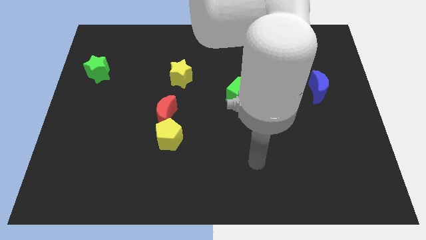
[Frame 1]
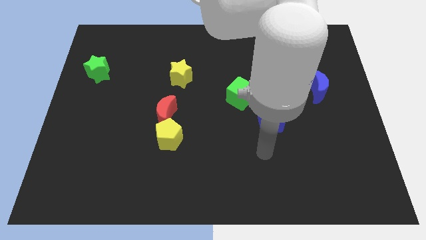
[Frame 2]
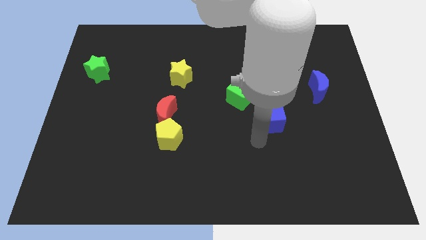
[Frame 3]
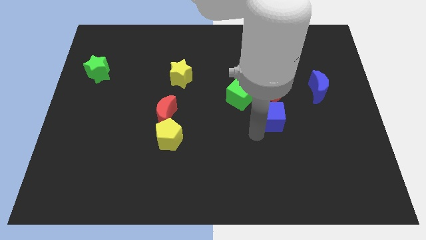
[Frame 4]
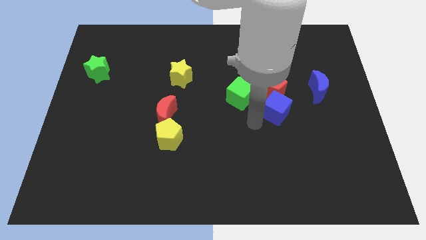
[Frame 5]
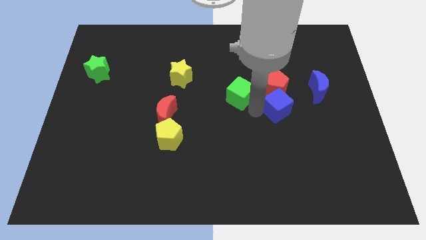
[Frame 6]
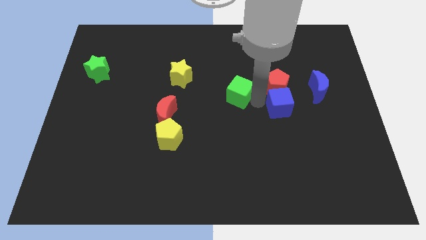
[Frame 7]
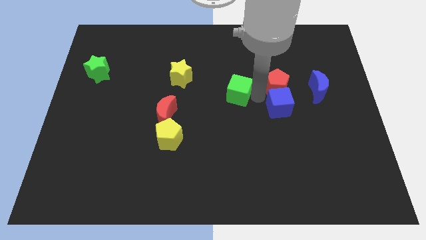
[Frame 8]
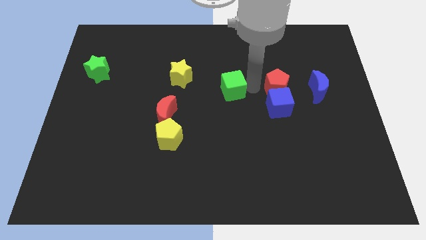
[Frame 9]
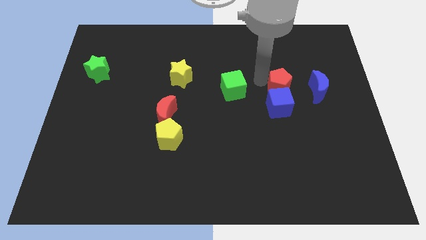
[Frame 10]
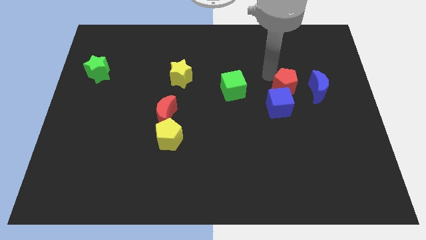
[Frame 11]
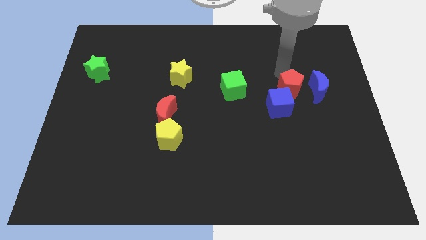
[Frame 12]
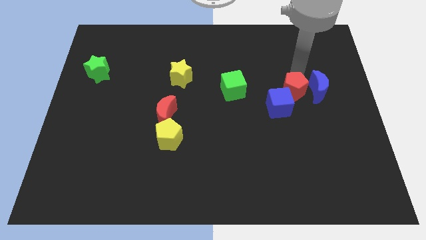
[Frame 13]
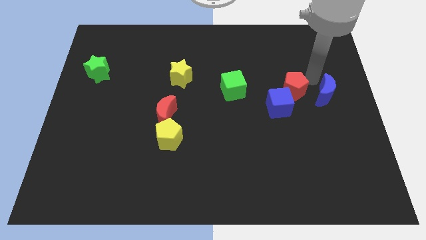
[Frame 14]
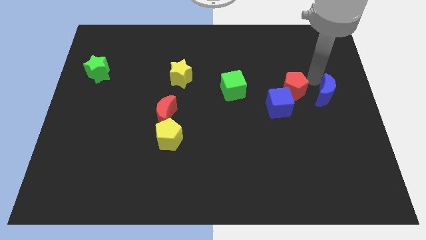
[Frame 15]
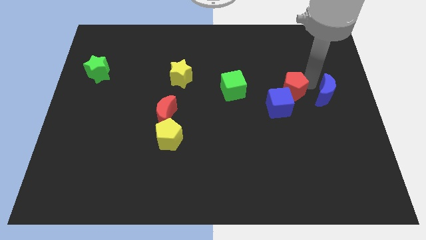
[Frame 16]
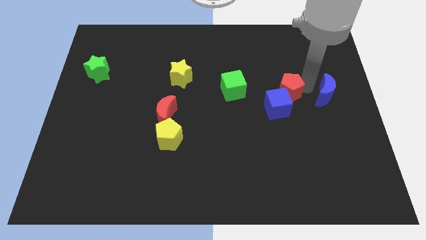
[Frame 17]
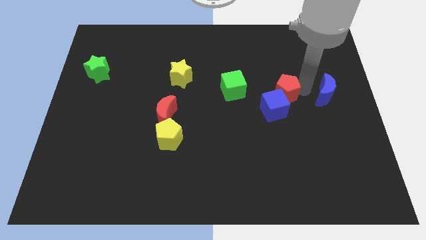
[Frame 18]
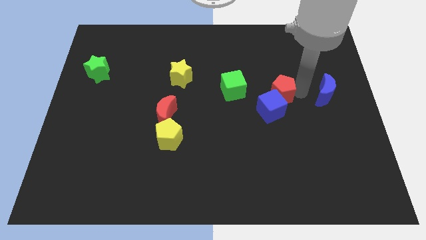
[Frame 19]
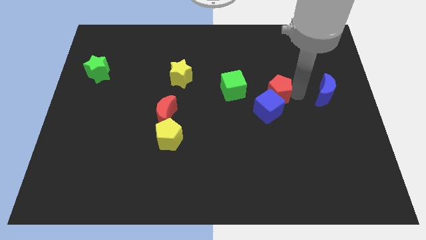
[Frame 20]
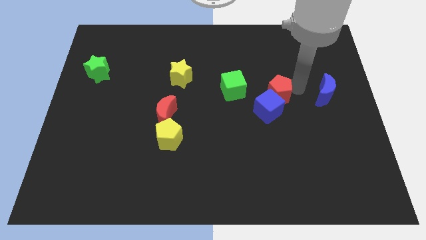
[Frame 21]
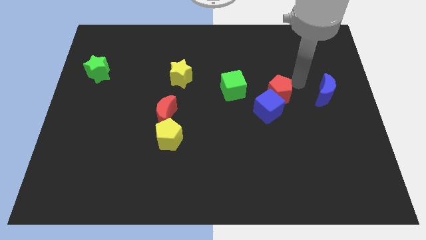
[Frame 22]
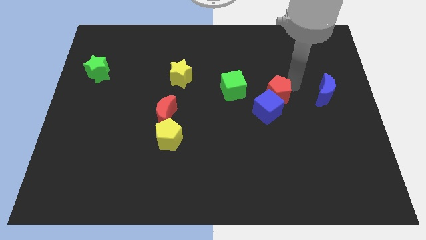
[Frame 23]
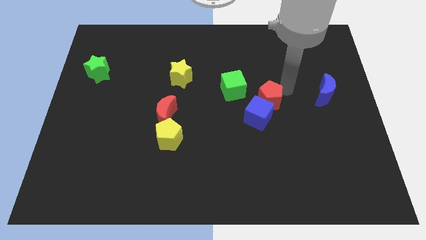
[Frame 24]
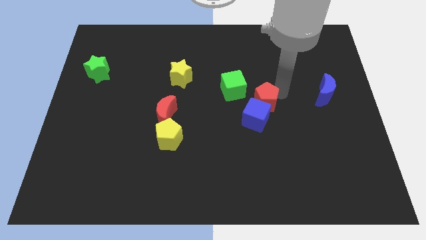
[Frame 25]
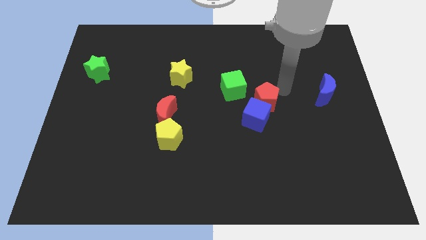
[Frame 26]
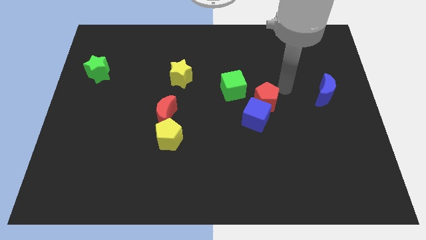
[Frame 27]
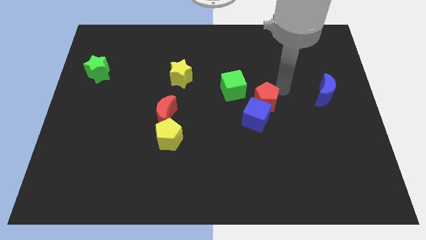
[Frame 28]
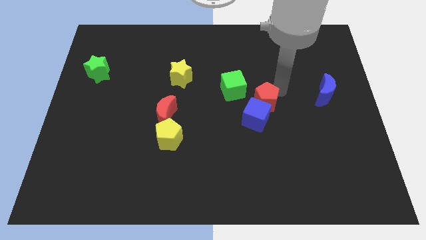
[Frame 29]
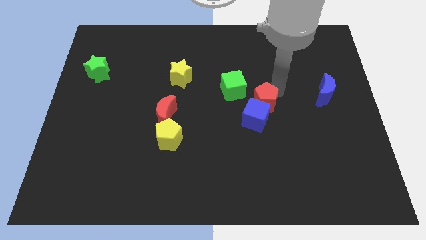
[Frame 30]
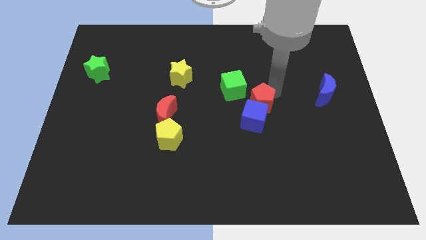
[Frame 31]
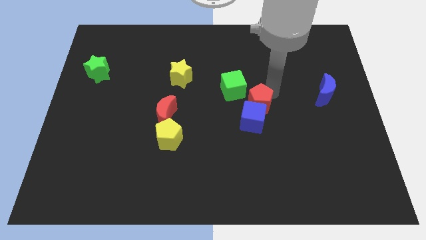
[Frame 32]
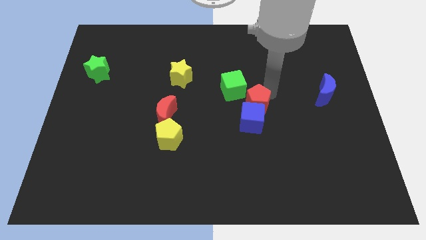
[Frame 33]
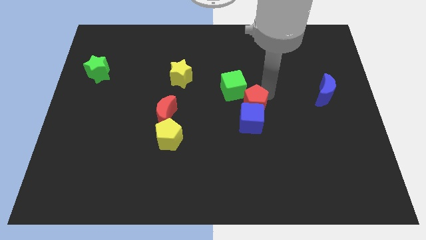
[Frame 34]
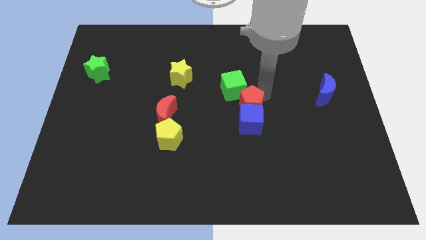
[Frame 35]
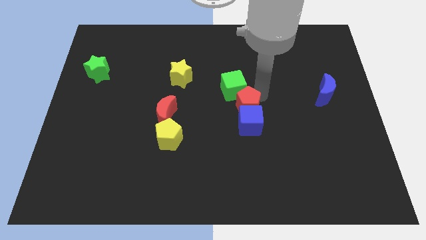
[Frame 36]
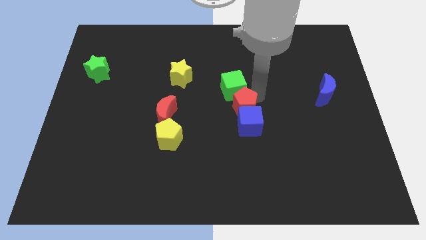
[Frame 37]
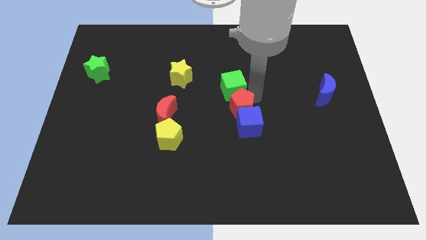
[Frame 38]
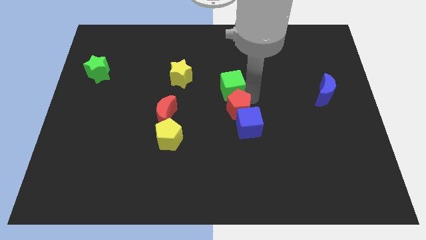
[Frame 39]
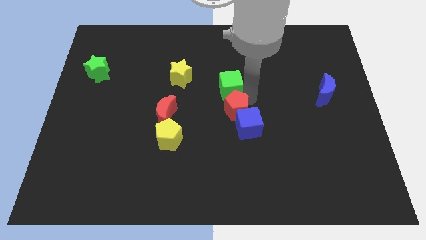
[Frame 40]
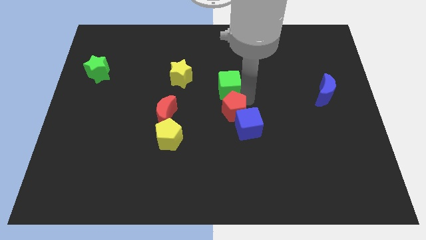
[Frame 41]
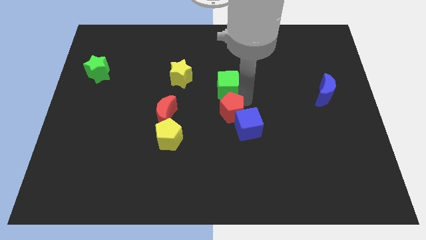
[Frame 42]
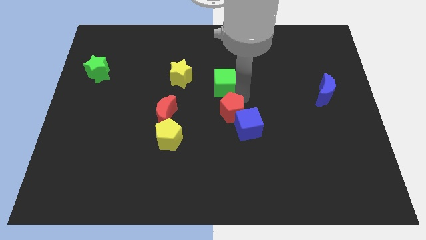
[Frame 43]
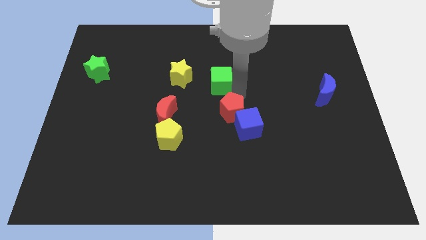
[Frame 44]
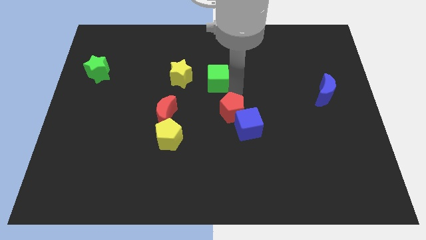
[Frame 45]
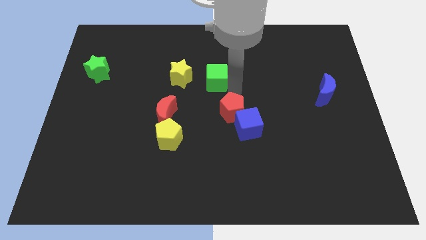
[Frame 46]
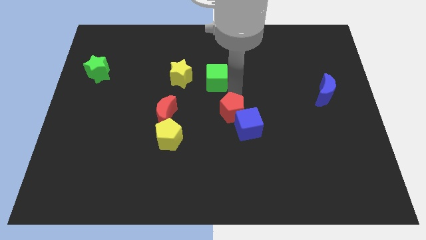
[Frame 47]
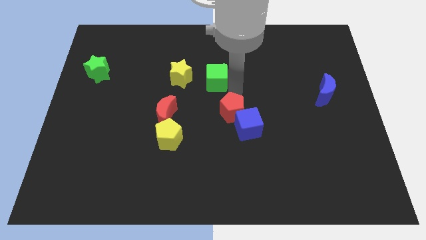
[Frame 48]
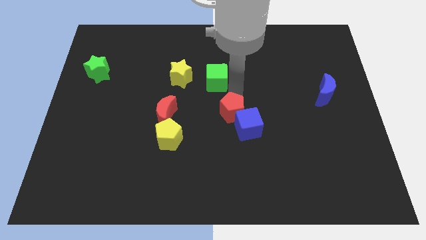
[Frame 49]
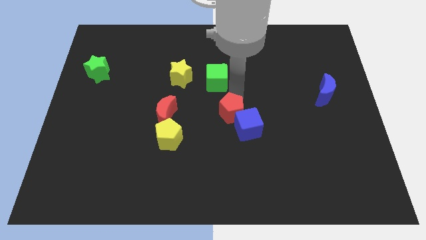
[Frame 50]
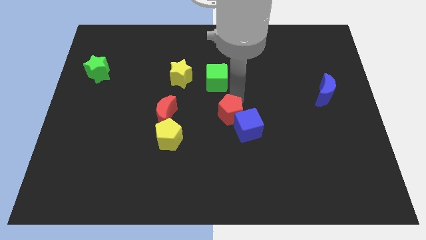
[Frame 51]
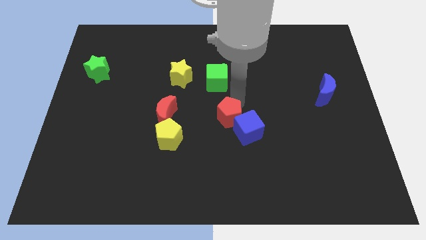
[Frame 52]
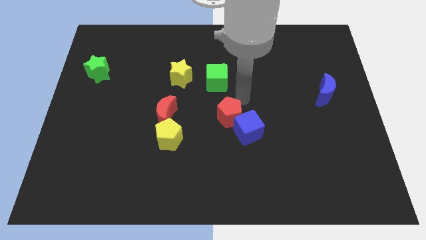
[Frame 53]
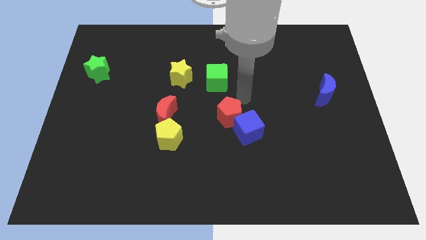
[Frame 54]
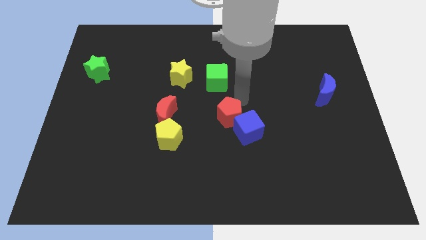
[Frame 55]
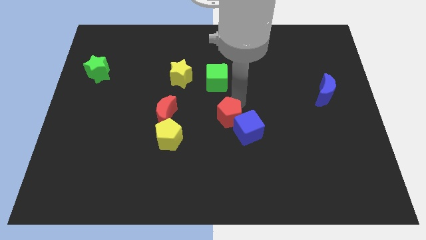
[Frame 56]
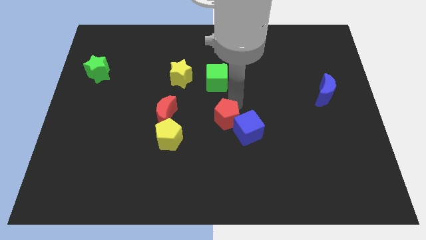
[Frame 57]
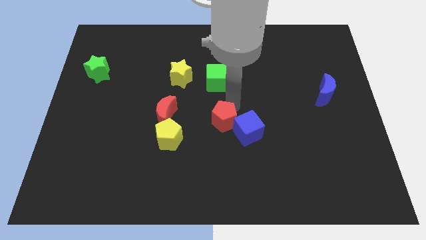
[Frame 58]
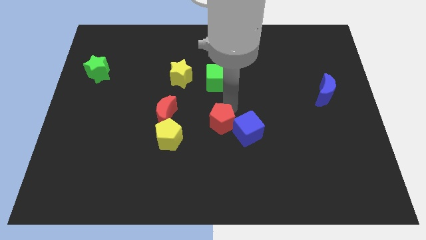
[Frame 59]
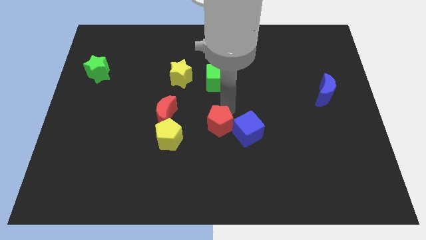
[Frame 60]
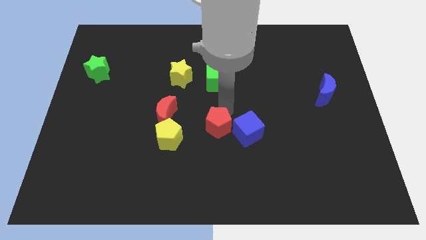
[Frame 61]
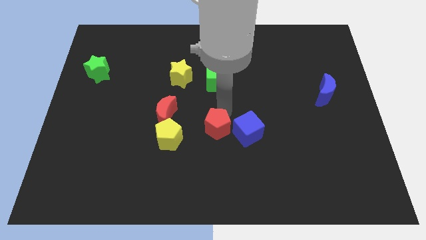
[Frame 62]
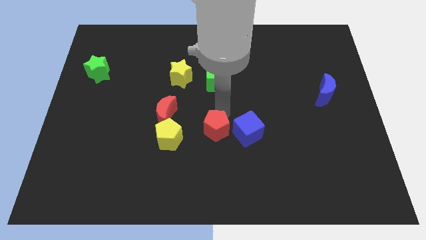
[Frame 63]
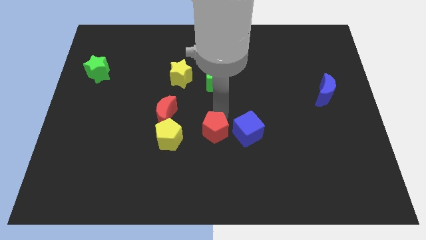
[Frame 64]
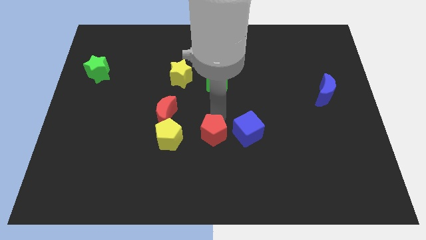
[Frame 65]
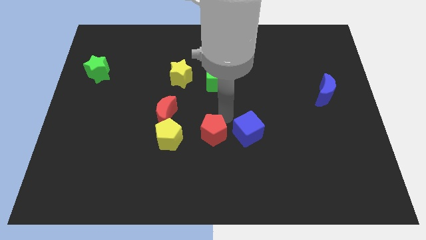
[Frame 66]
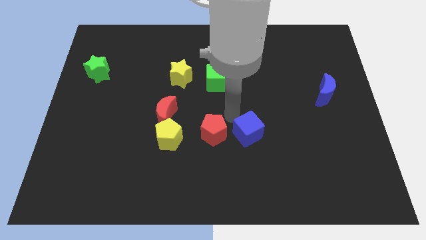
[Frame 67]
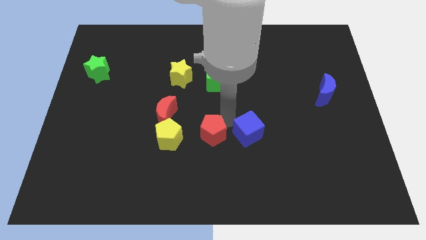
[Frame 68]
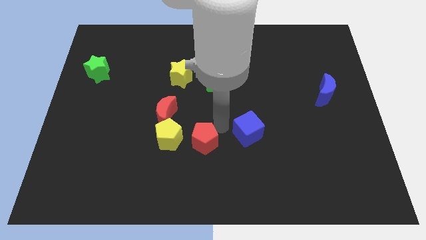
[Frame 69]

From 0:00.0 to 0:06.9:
move the red pentagon diagonally down and left

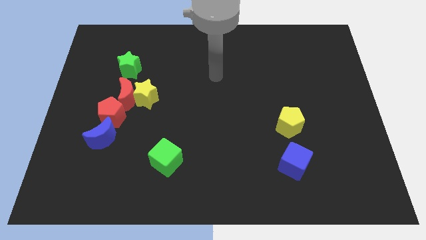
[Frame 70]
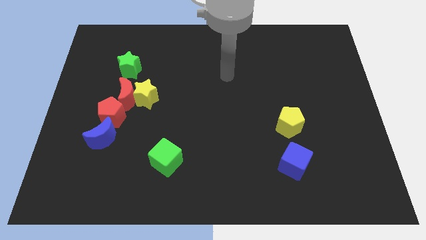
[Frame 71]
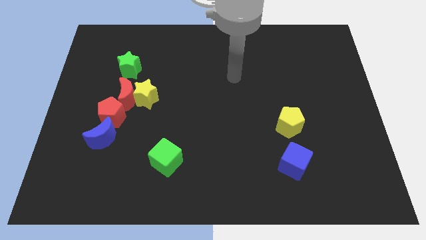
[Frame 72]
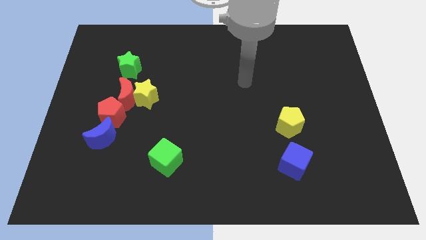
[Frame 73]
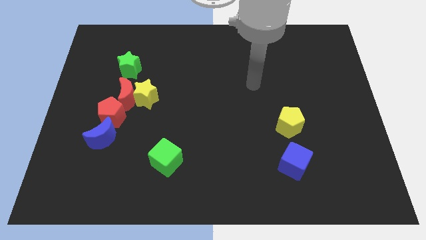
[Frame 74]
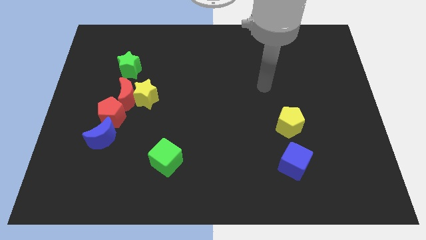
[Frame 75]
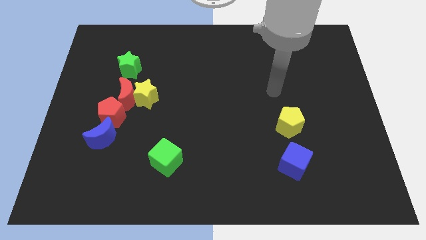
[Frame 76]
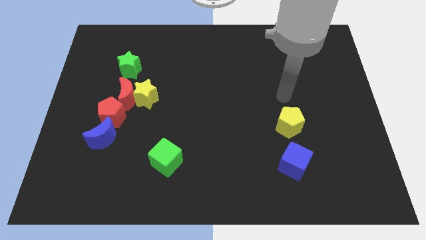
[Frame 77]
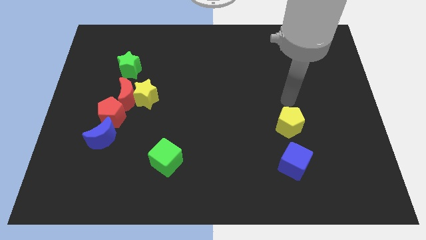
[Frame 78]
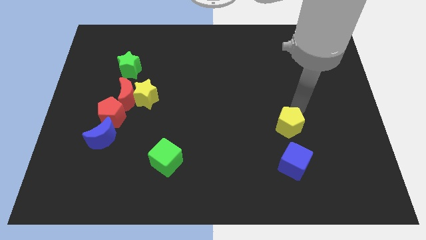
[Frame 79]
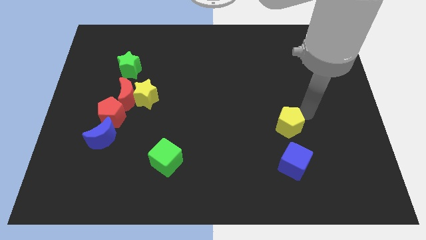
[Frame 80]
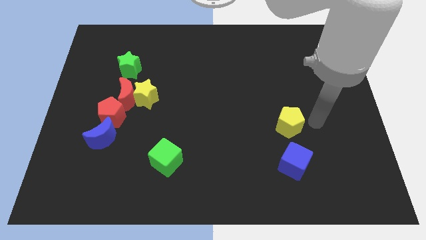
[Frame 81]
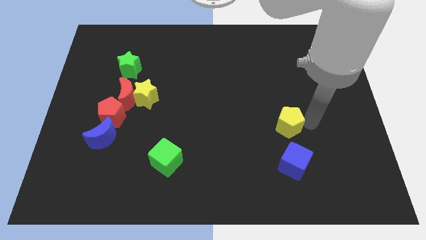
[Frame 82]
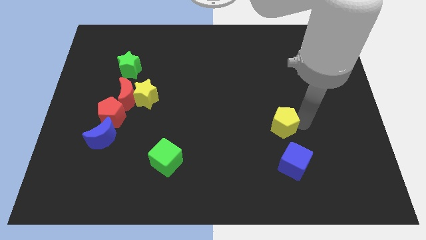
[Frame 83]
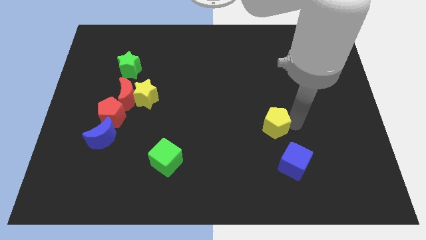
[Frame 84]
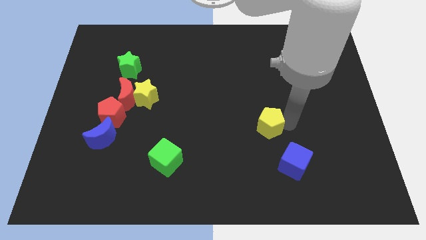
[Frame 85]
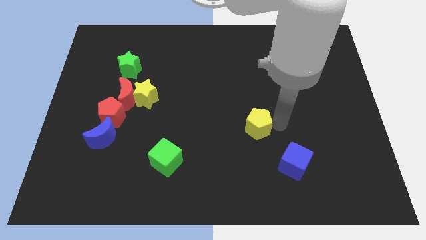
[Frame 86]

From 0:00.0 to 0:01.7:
slightly slide the yellow pentagon left
